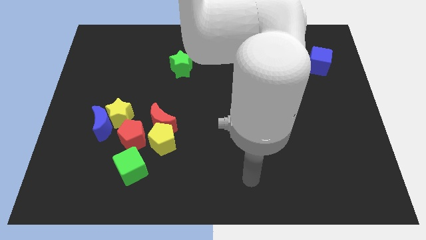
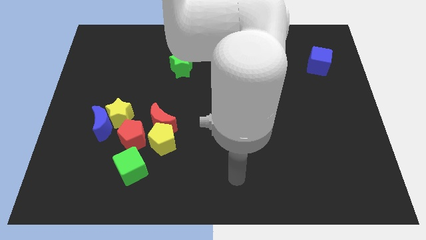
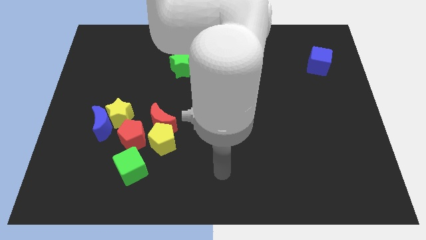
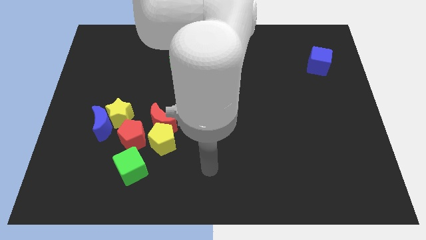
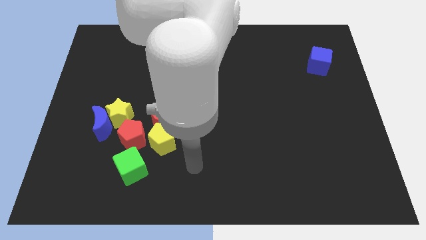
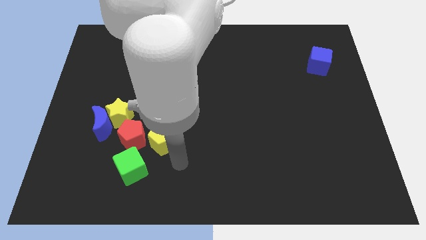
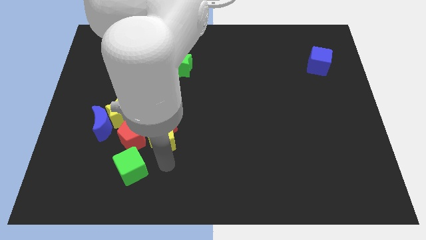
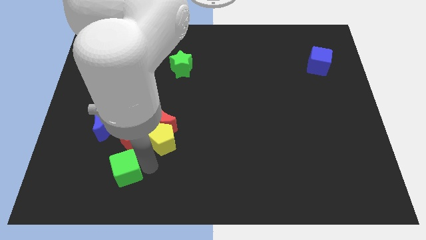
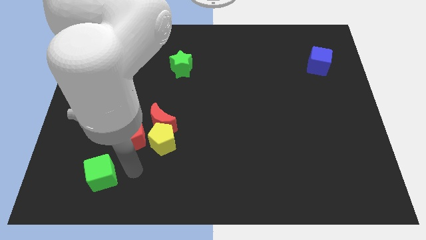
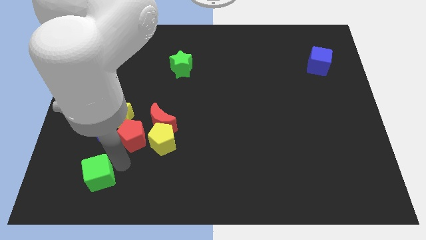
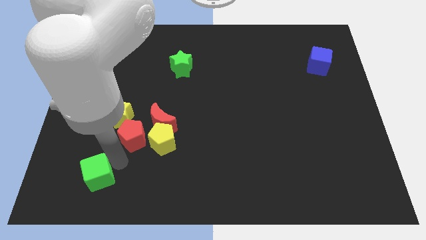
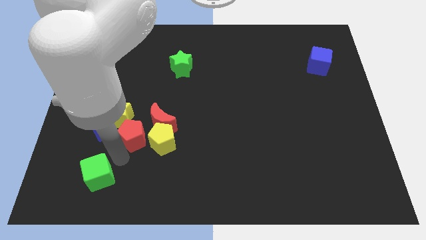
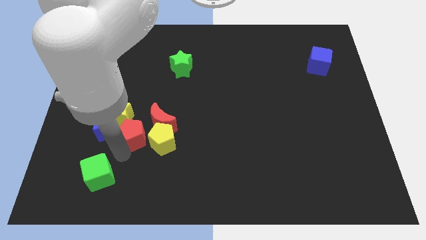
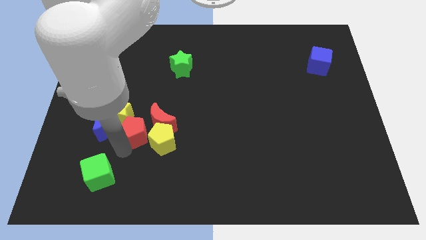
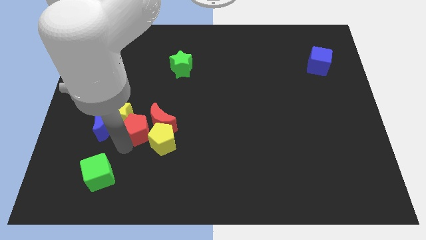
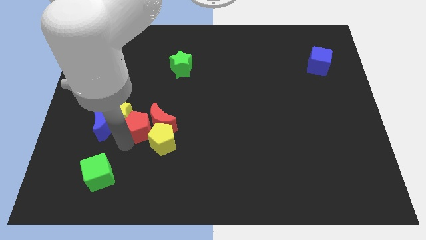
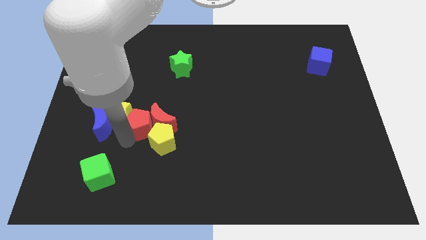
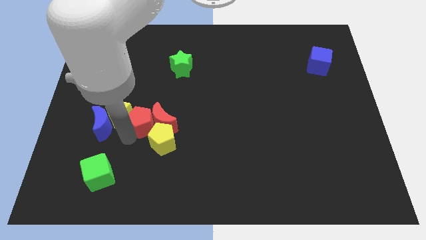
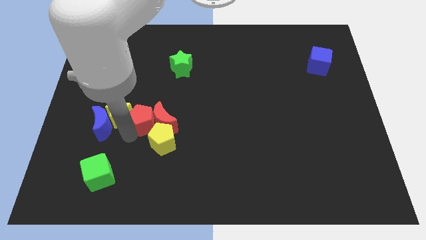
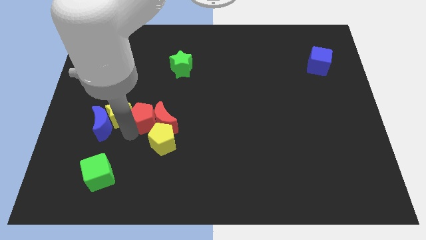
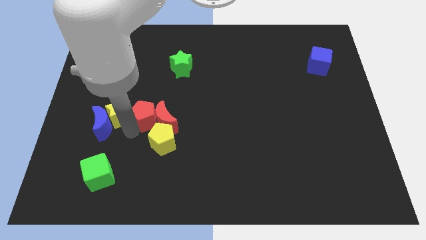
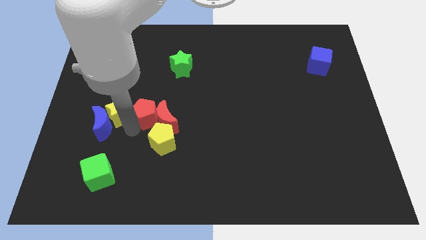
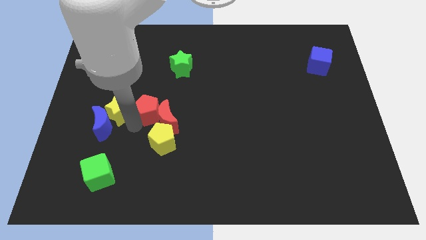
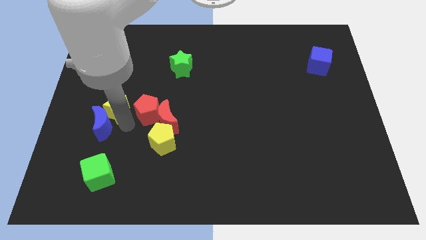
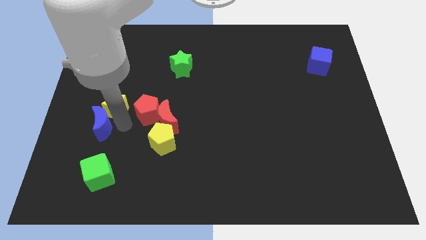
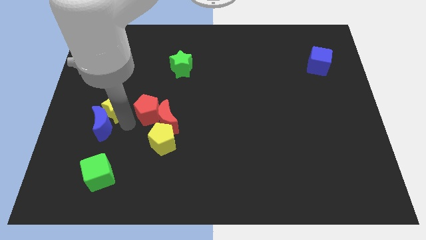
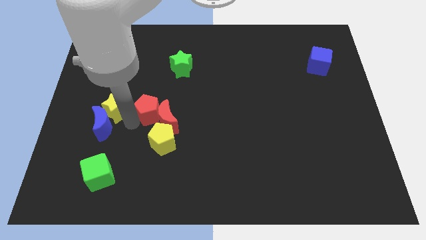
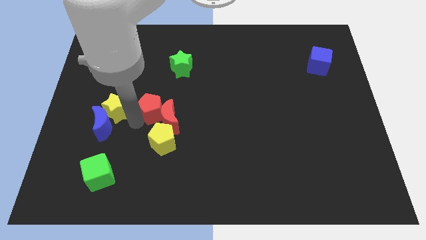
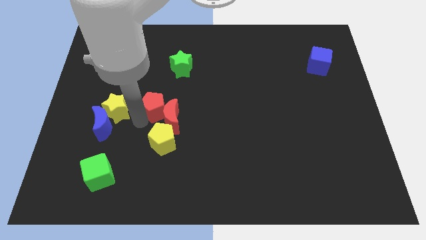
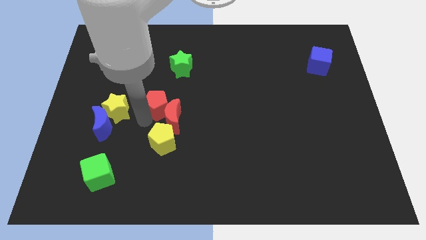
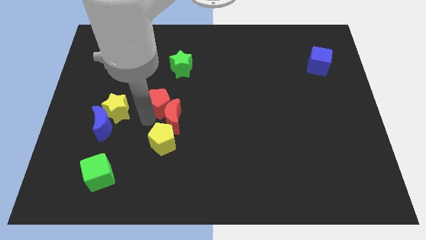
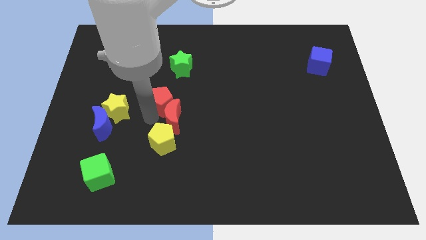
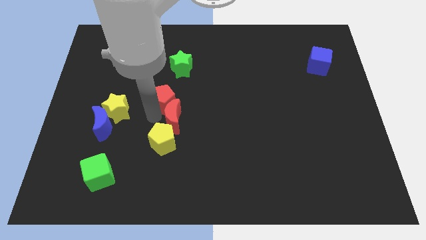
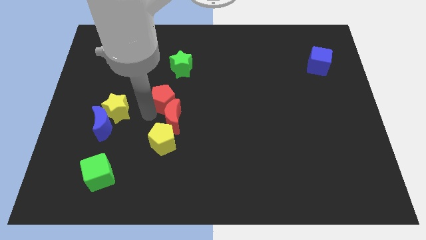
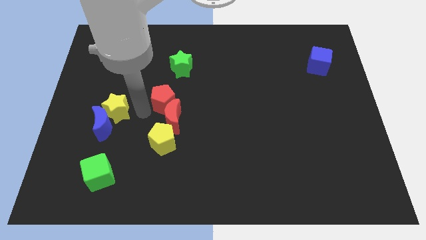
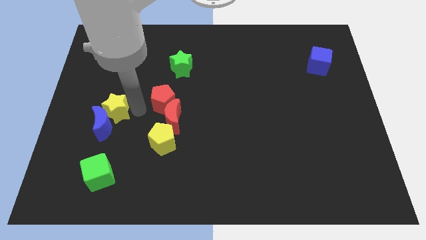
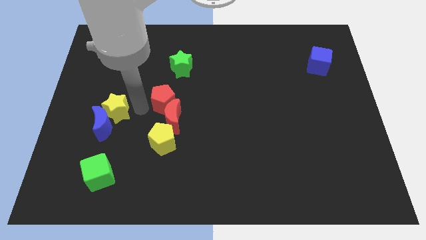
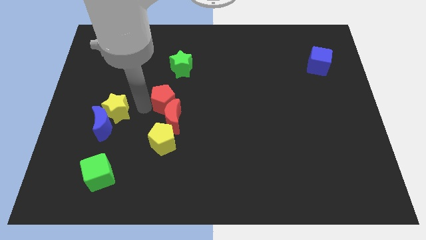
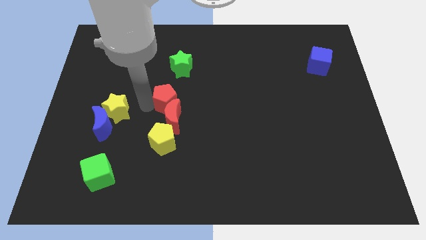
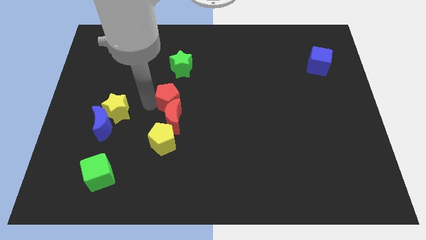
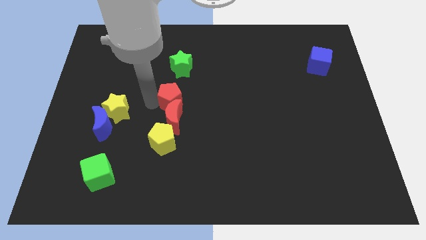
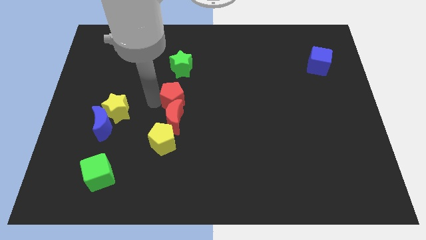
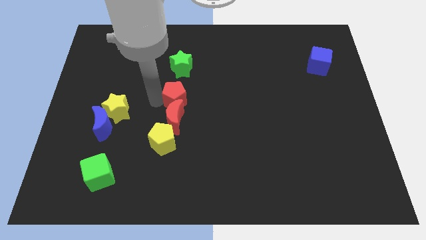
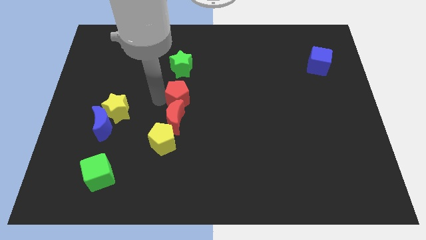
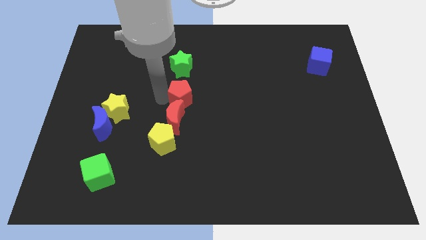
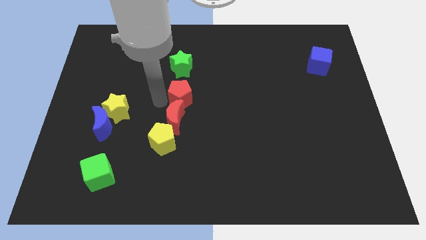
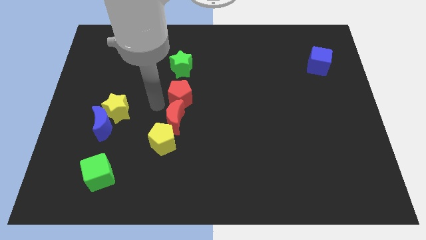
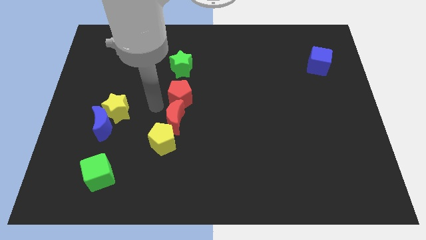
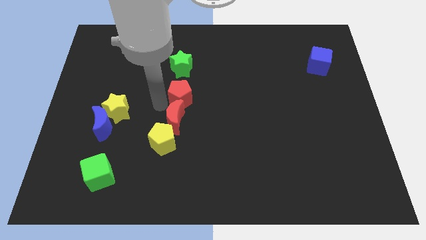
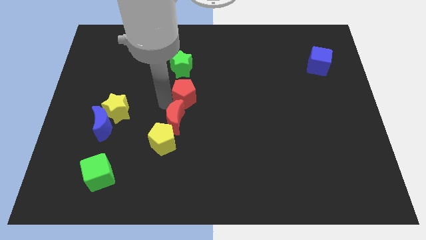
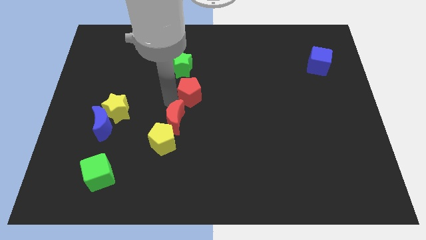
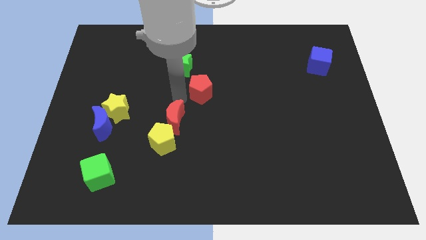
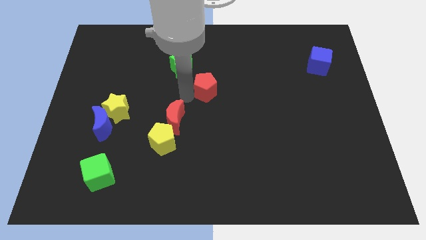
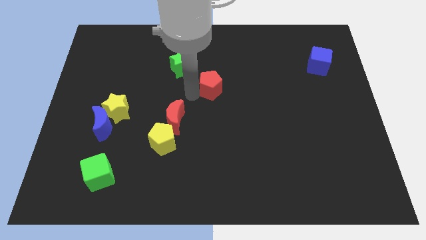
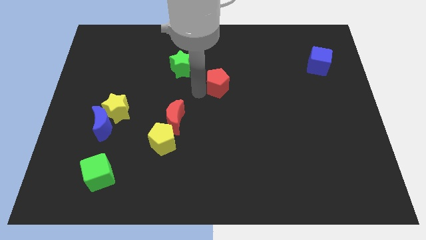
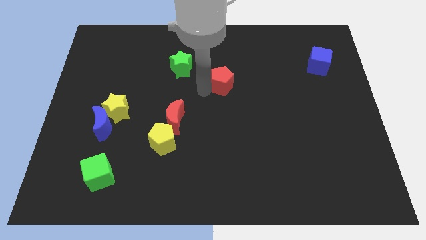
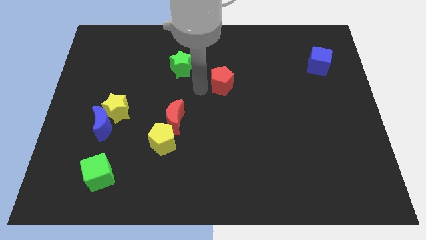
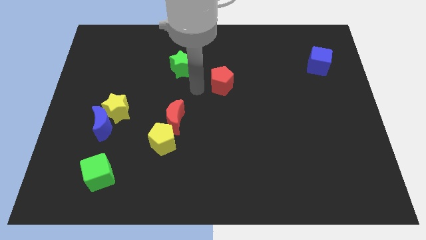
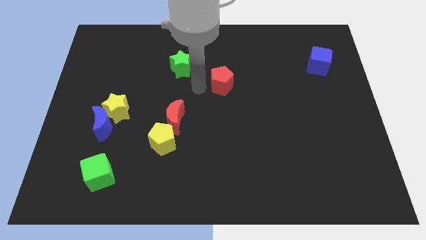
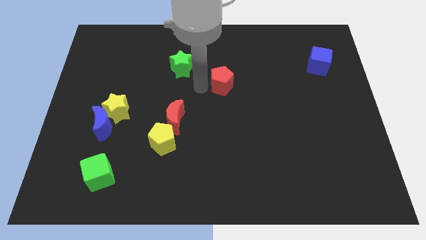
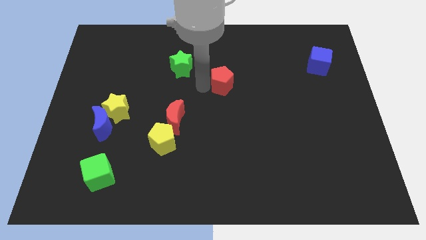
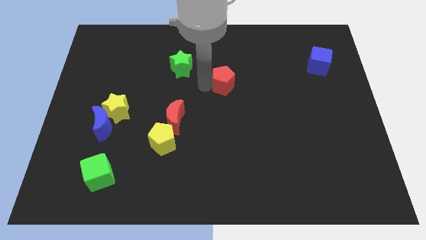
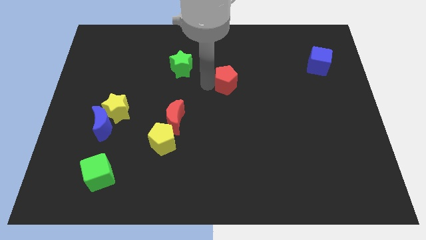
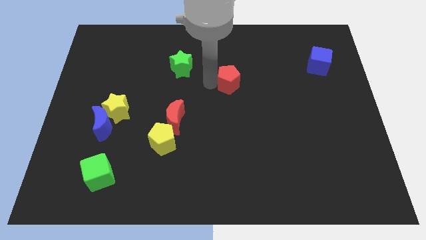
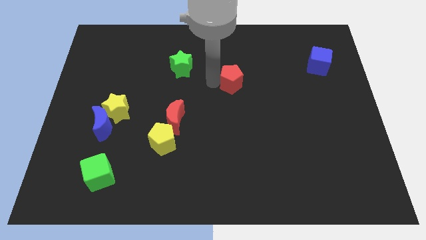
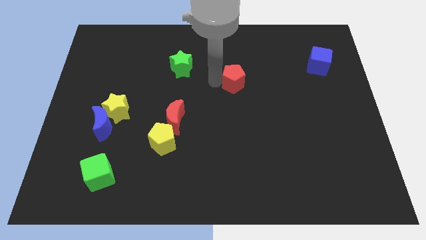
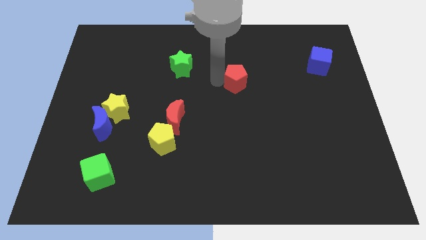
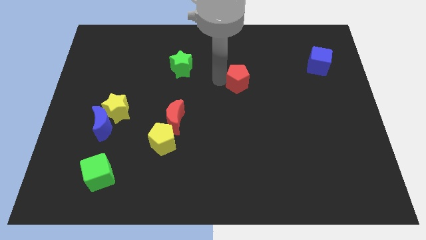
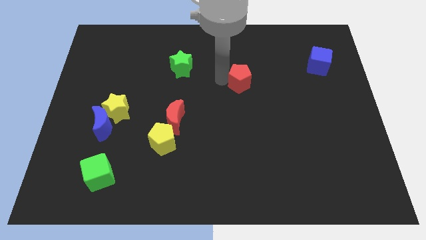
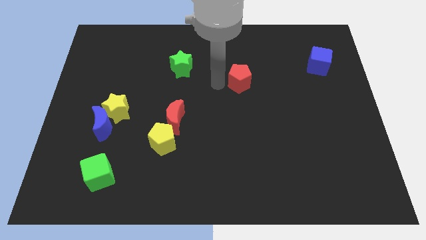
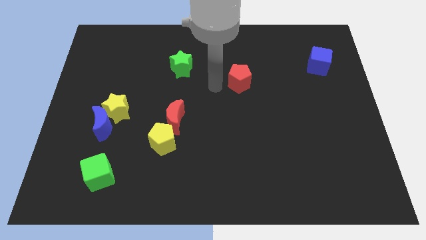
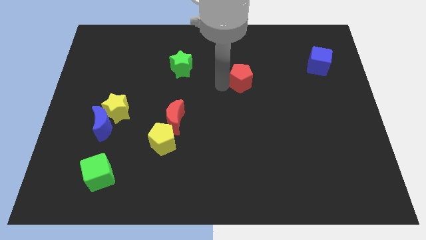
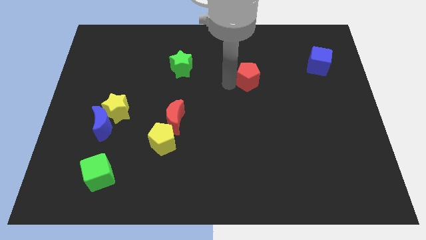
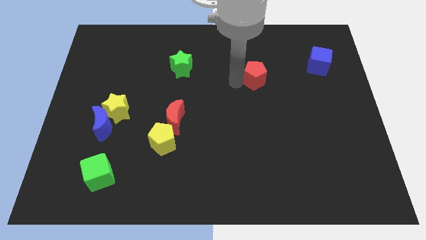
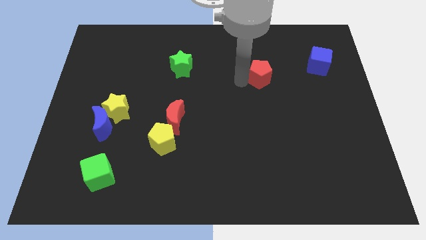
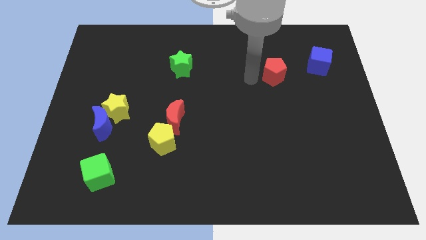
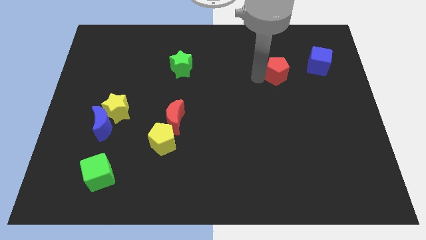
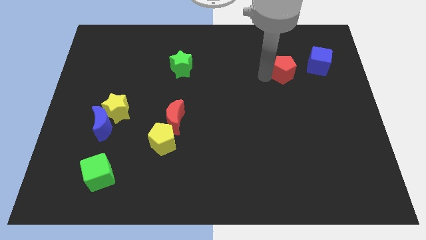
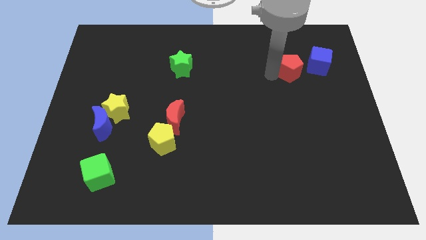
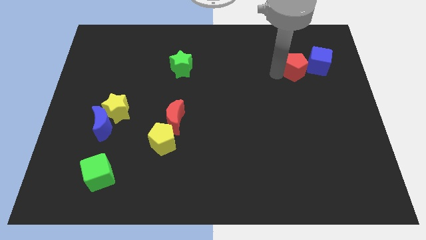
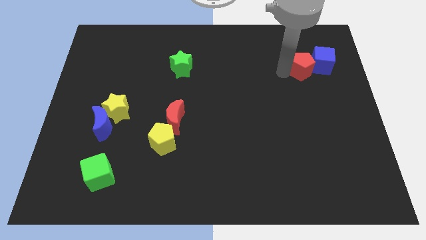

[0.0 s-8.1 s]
push the red pentagon towards the blue cube
